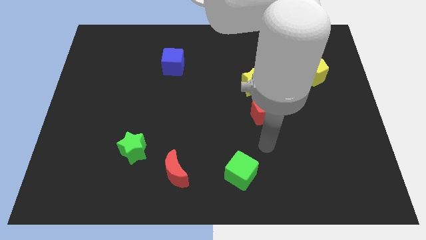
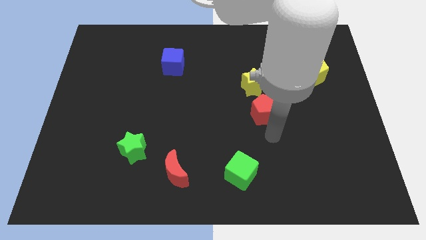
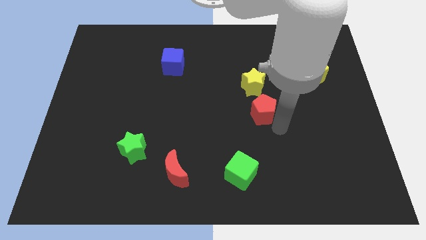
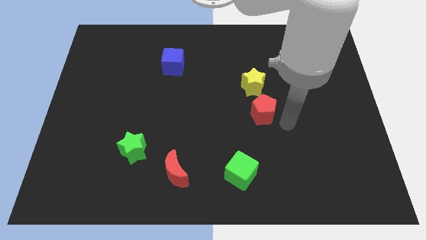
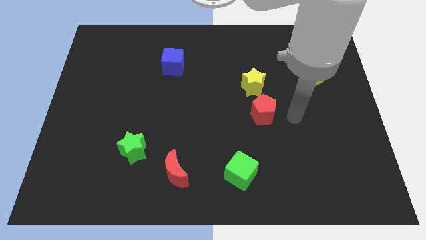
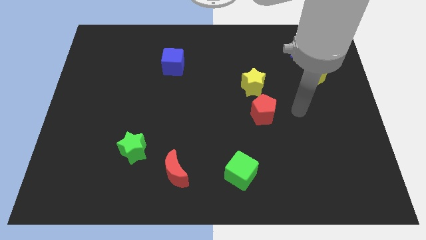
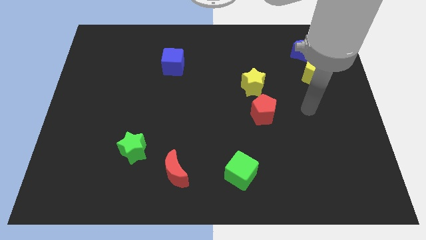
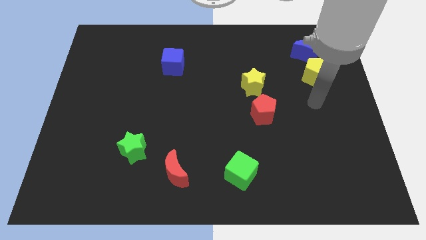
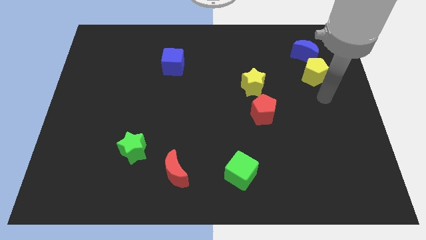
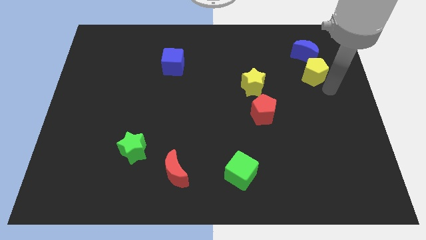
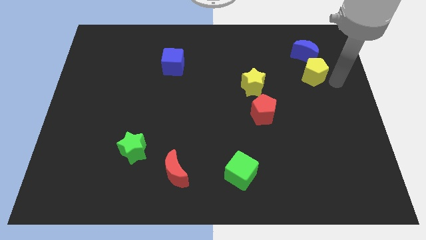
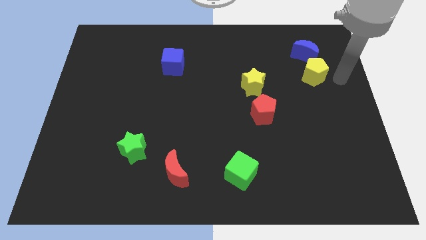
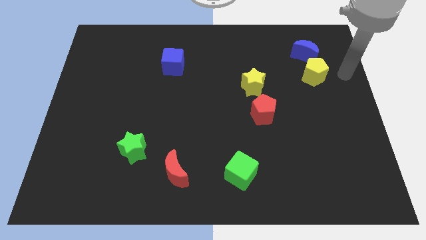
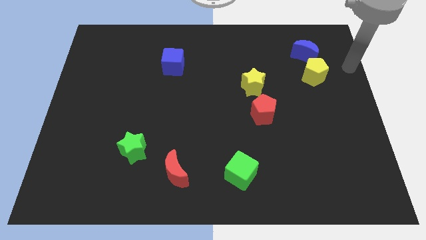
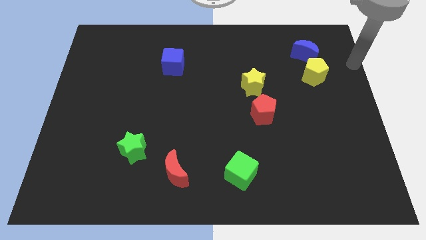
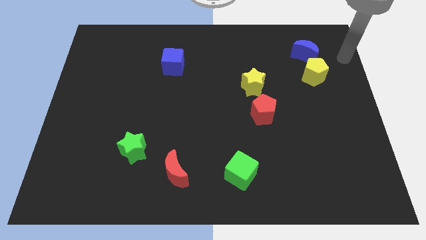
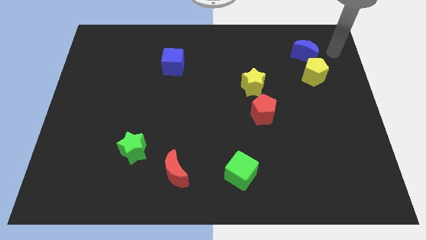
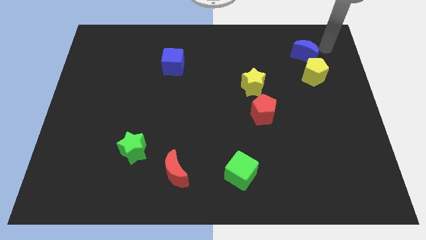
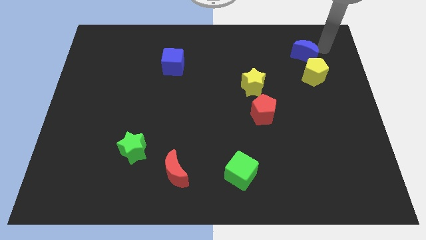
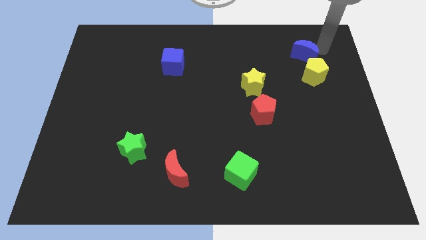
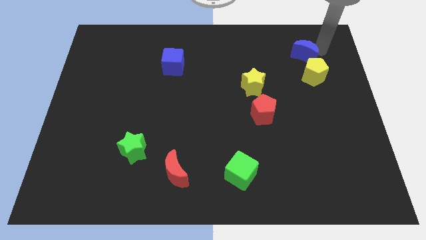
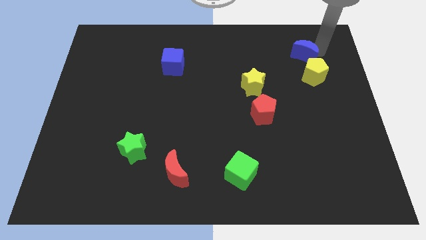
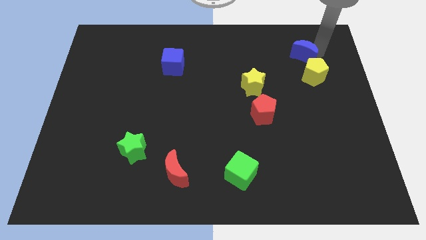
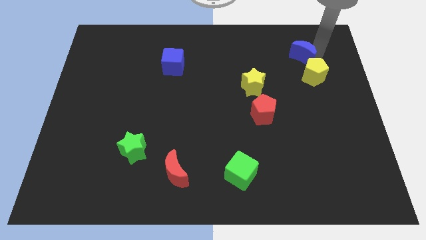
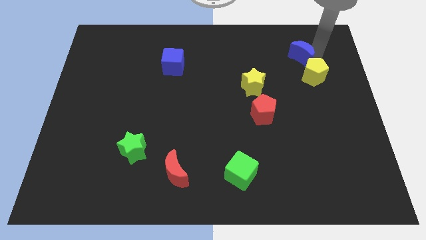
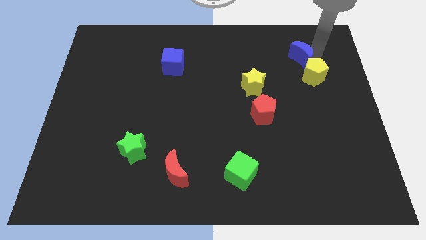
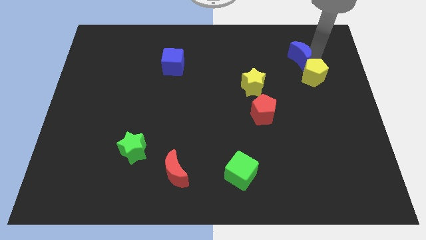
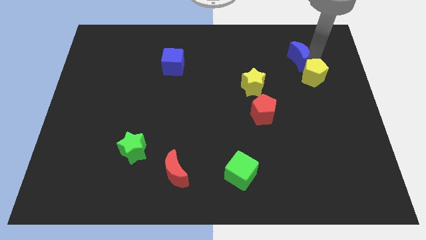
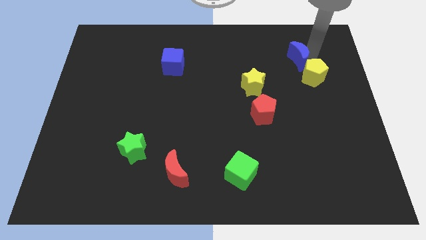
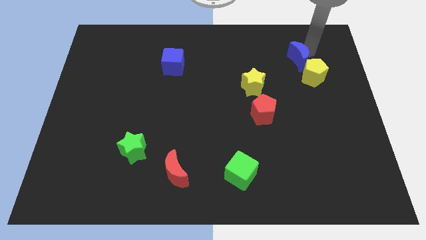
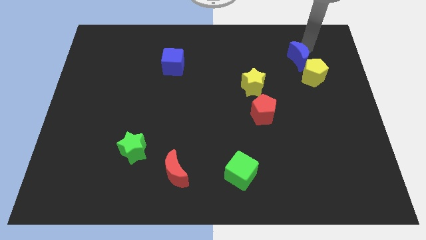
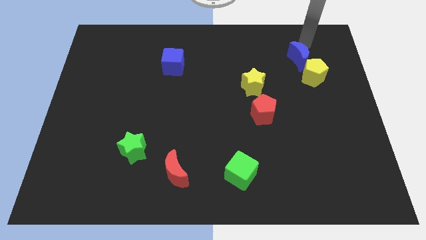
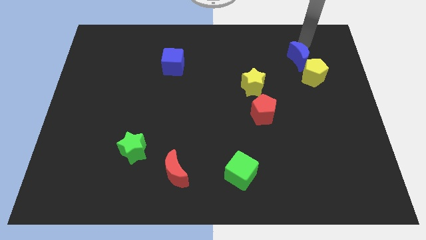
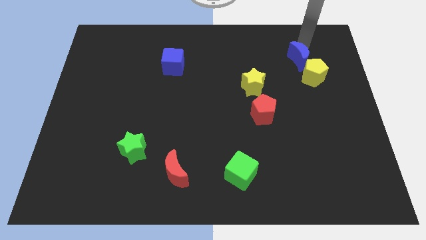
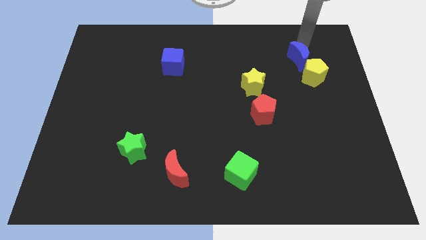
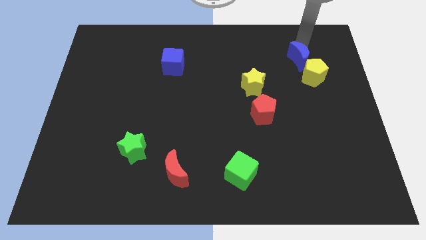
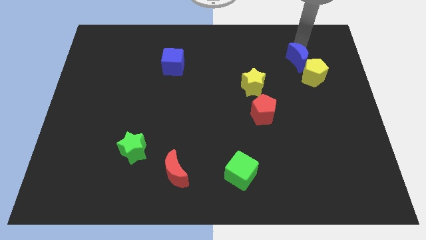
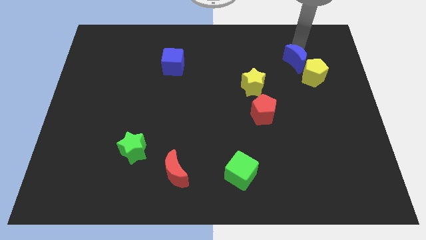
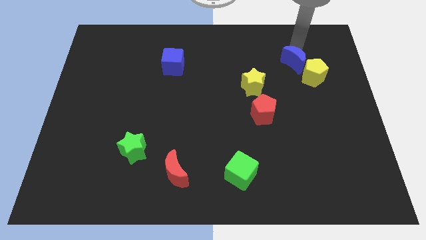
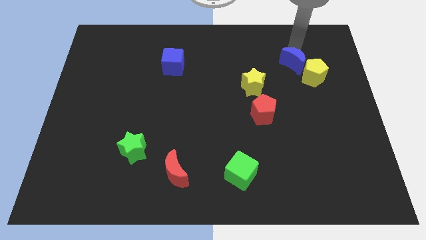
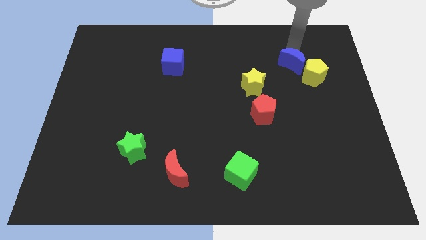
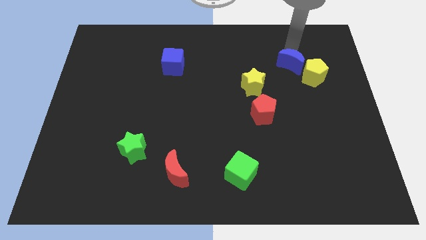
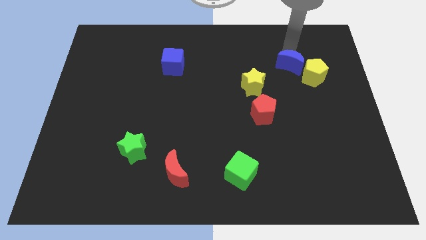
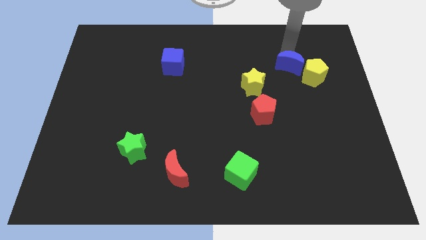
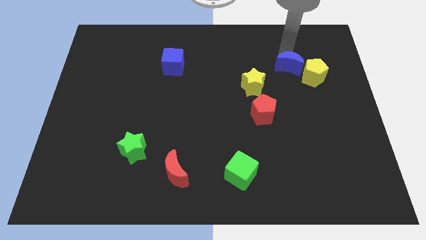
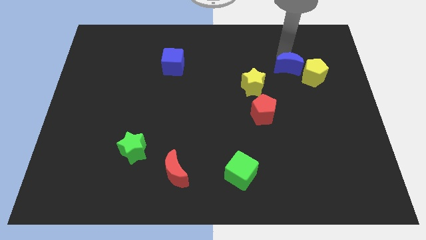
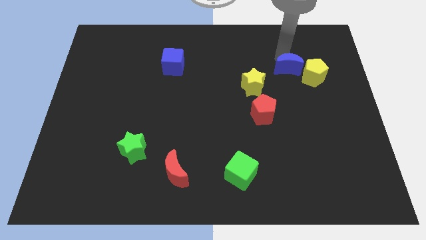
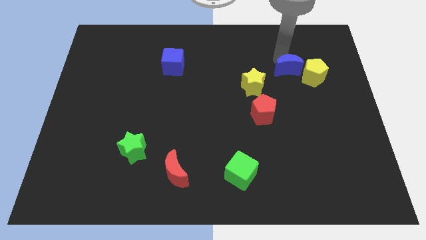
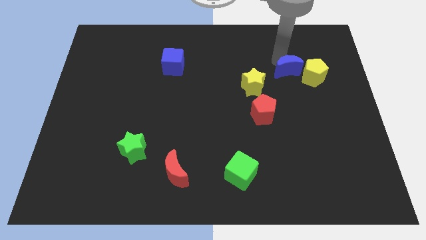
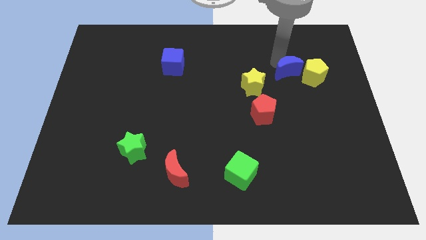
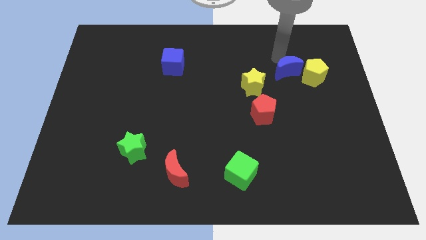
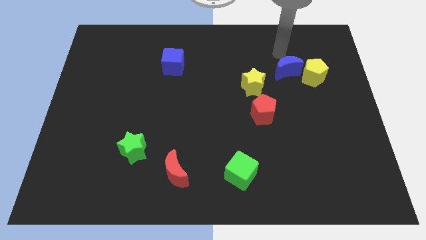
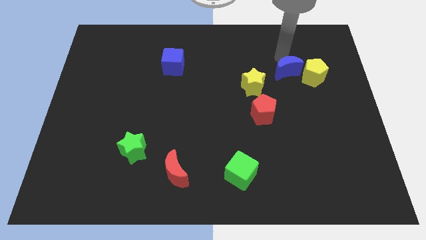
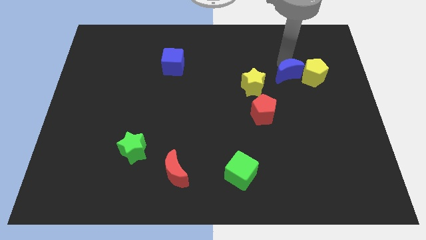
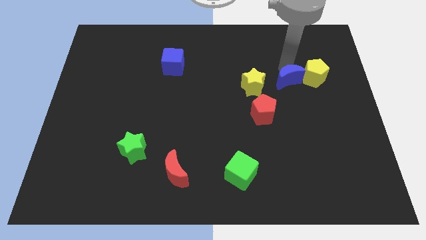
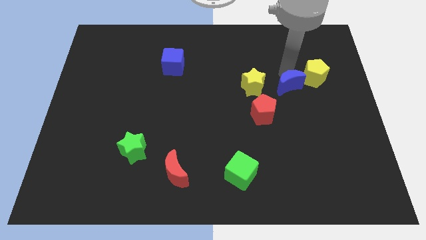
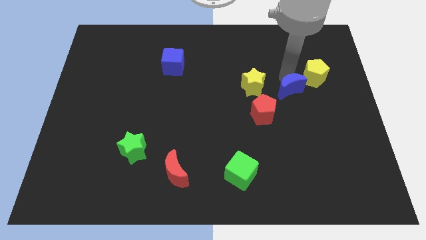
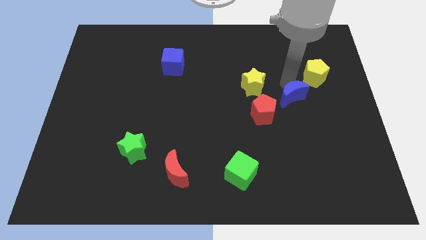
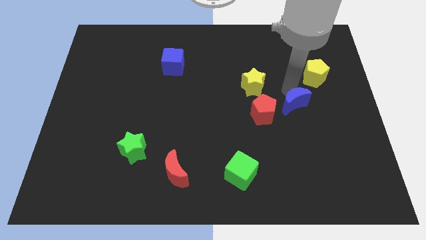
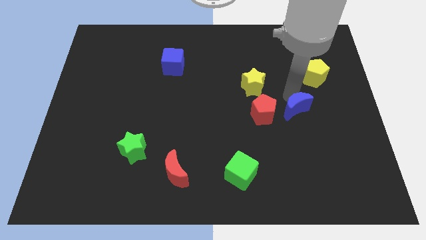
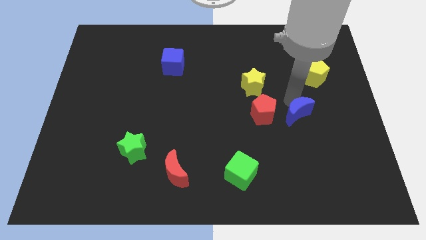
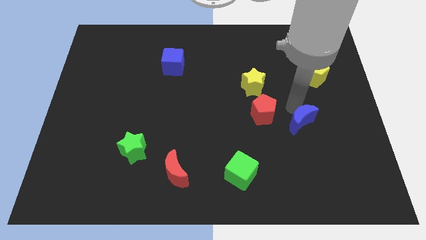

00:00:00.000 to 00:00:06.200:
slide the blue moon downwards

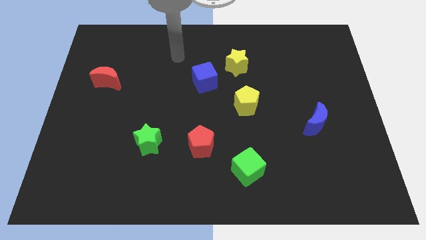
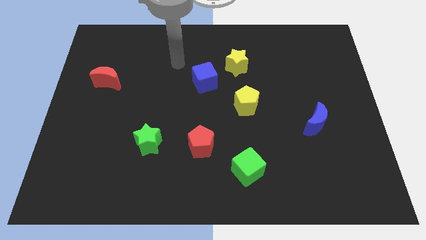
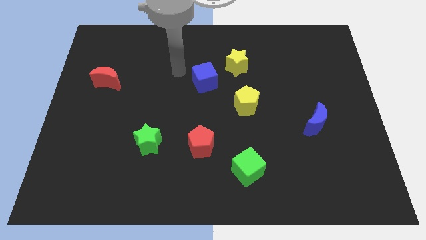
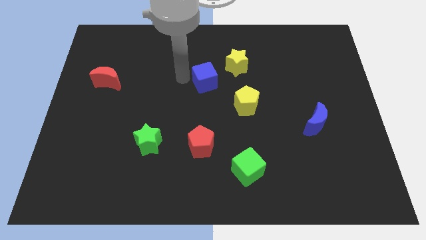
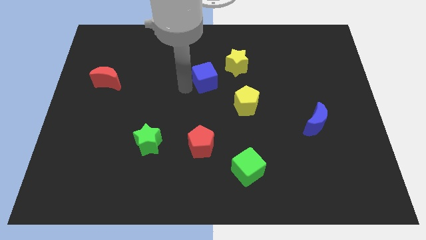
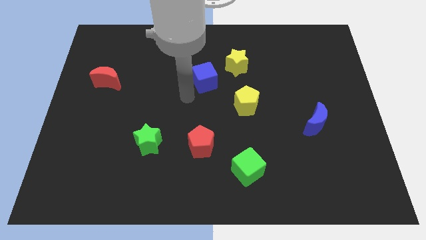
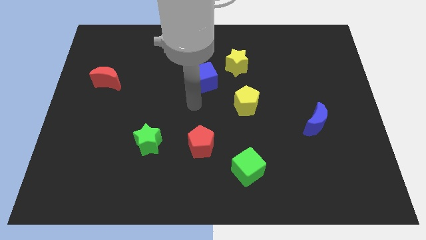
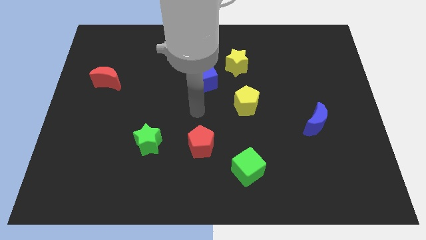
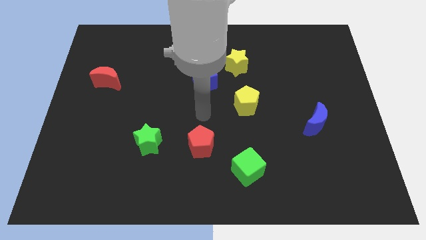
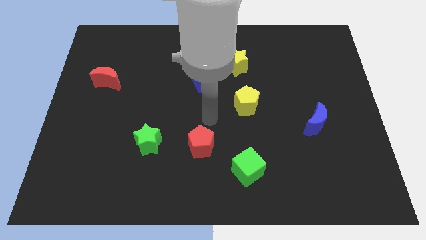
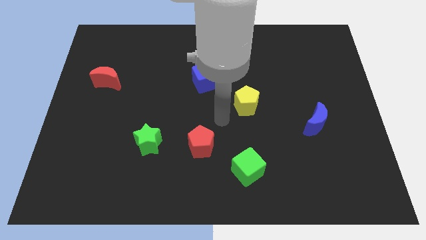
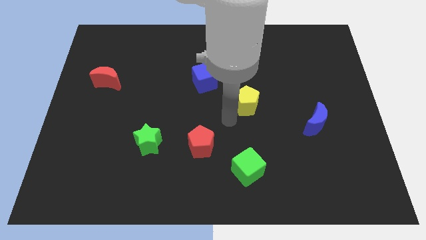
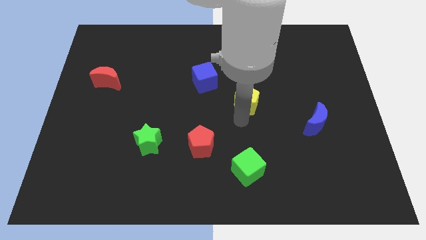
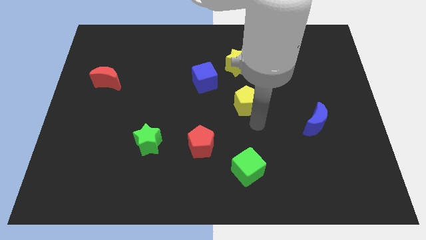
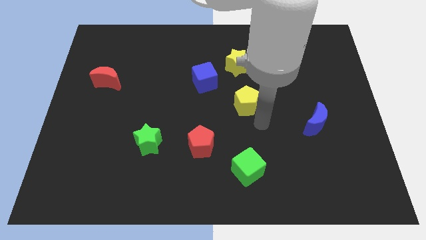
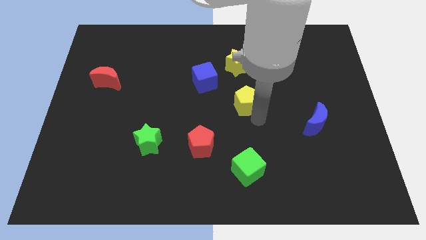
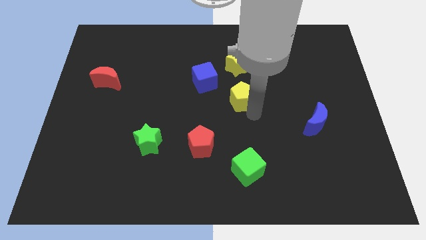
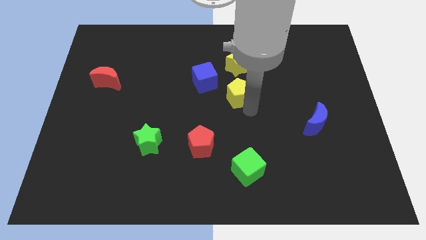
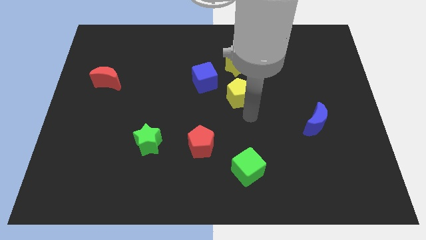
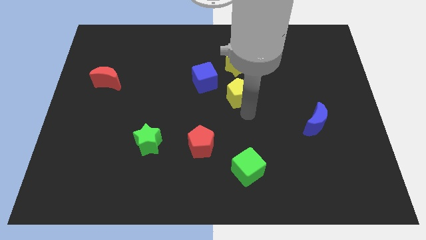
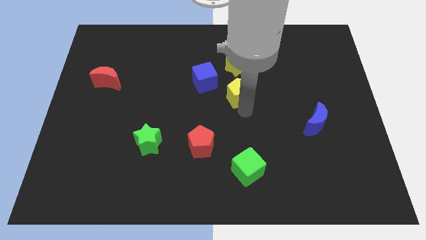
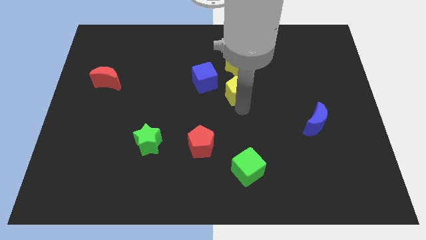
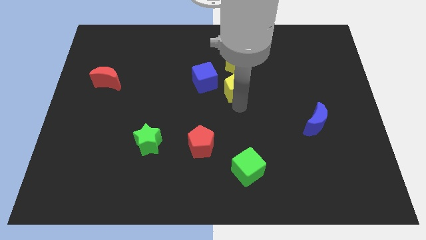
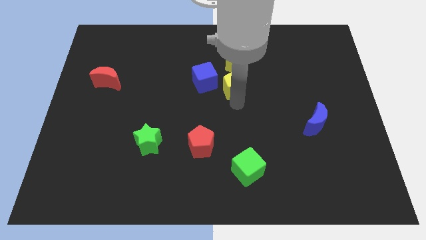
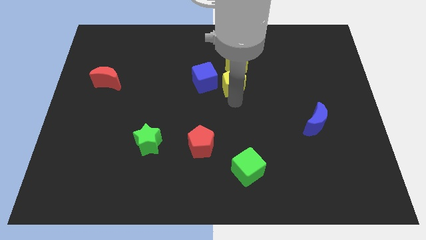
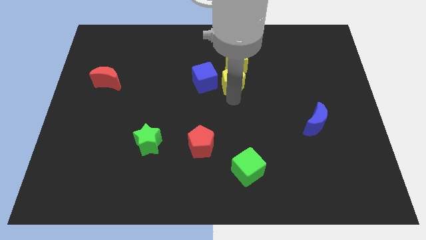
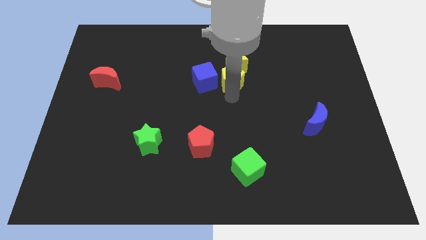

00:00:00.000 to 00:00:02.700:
slide the yellow pentagon diagonally up and to the left somewhat
